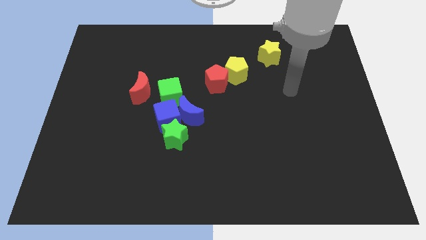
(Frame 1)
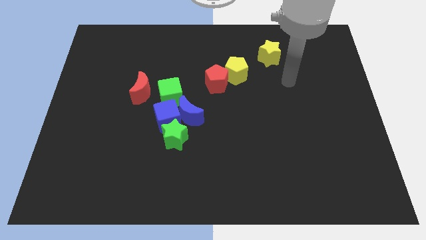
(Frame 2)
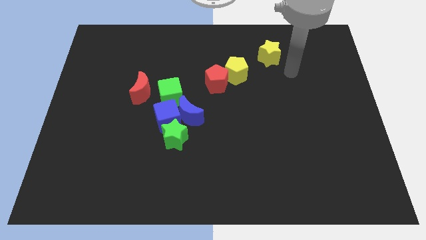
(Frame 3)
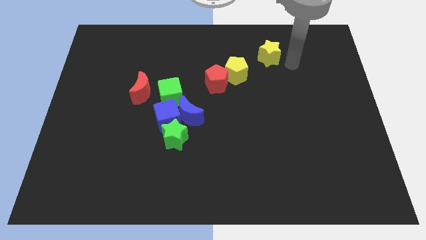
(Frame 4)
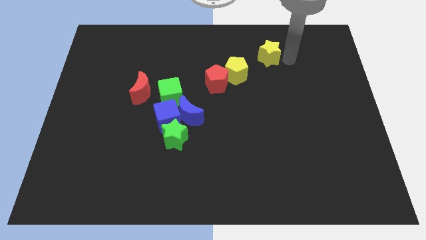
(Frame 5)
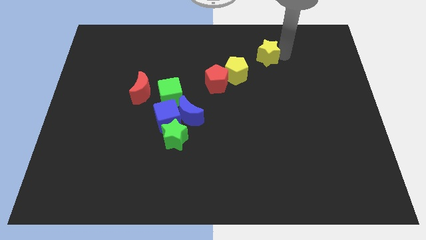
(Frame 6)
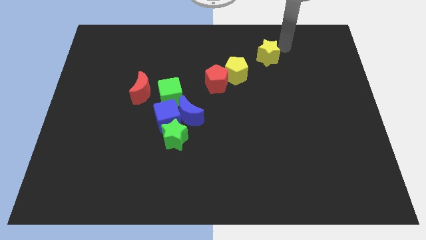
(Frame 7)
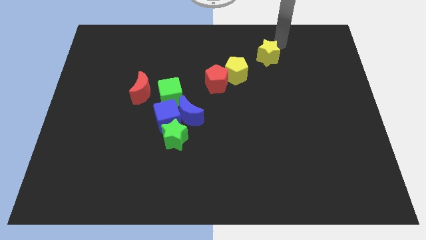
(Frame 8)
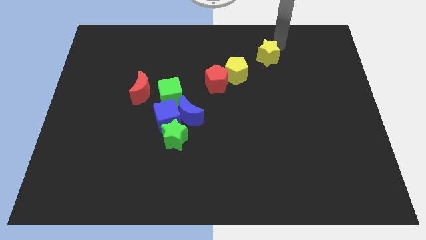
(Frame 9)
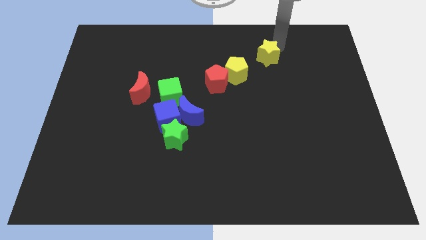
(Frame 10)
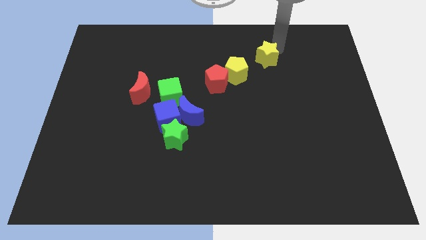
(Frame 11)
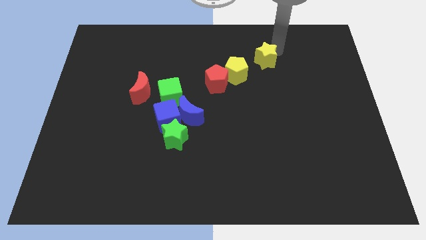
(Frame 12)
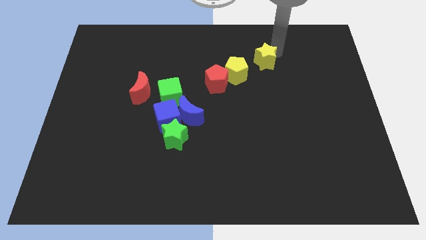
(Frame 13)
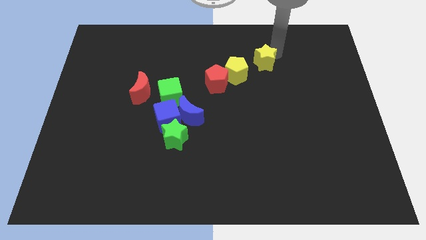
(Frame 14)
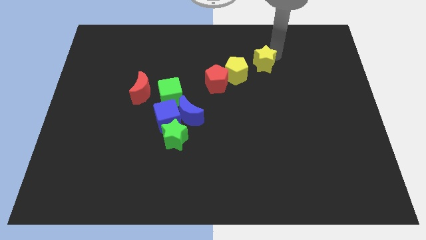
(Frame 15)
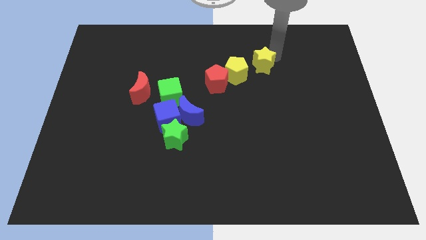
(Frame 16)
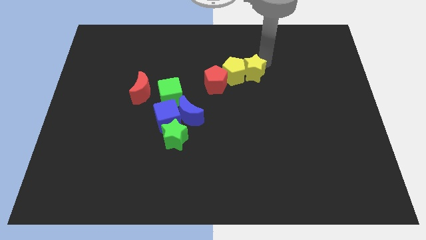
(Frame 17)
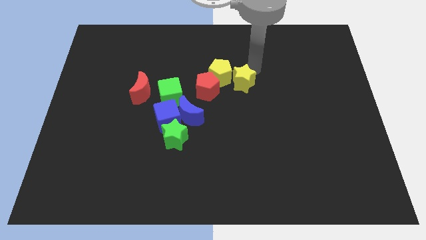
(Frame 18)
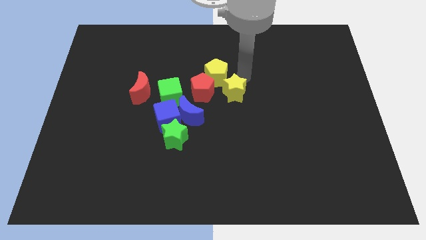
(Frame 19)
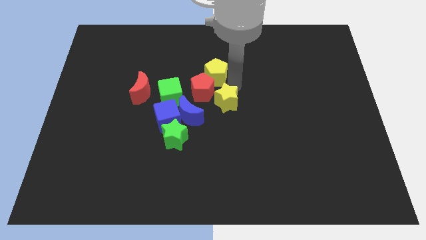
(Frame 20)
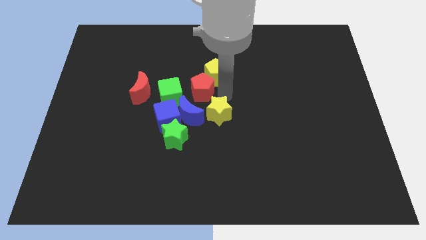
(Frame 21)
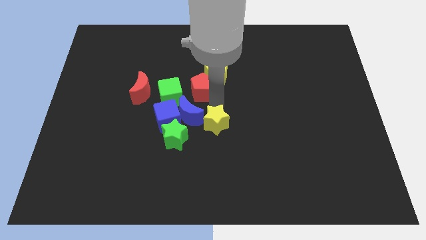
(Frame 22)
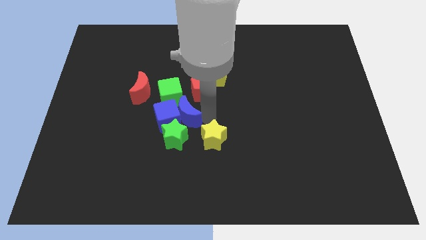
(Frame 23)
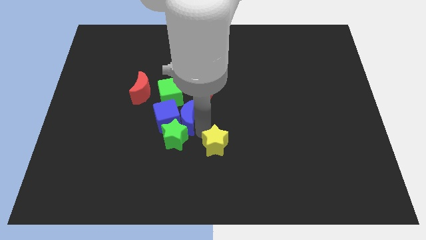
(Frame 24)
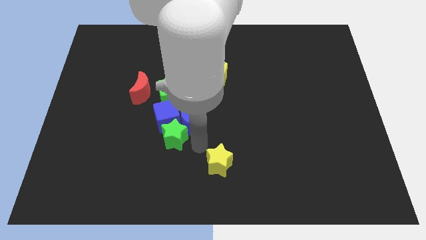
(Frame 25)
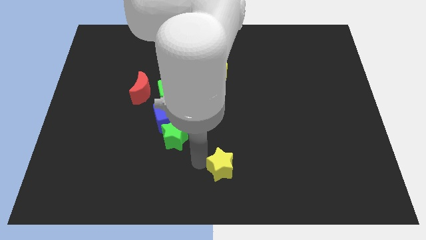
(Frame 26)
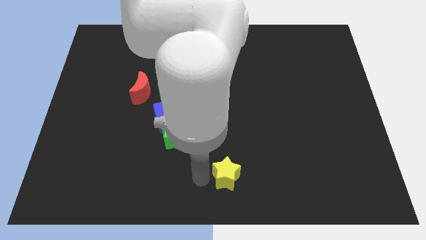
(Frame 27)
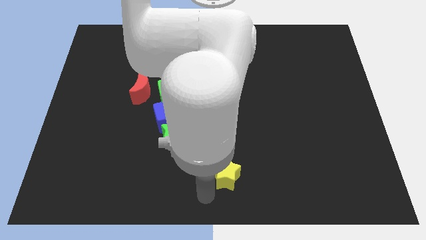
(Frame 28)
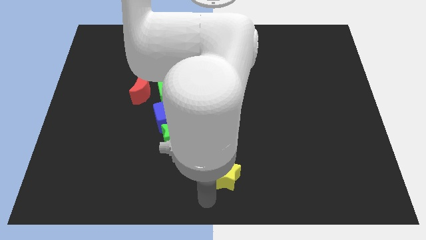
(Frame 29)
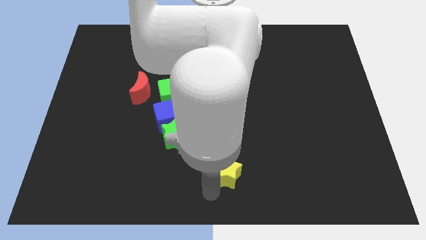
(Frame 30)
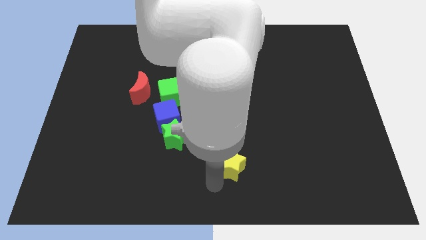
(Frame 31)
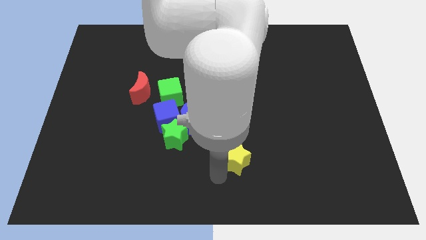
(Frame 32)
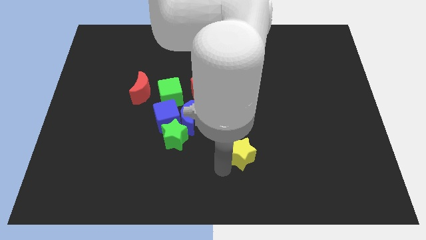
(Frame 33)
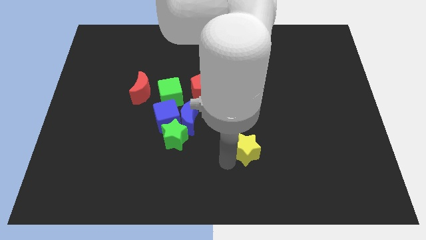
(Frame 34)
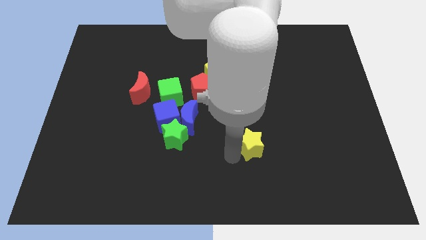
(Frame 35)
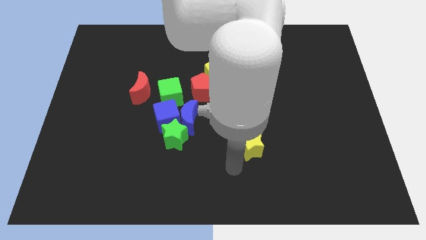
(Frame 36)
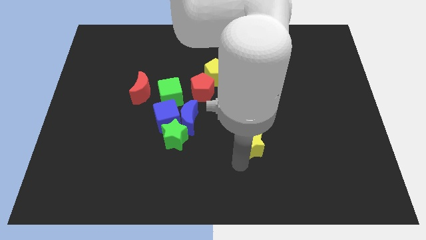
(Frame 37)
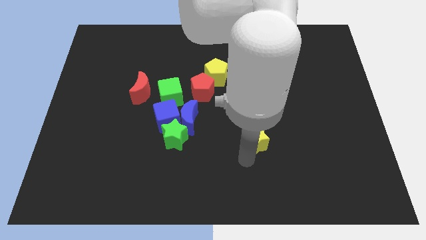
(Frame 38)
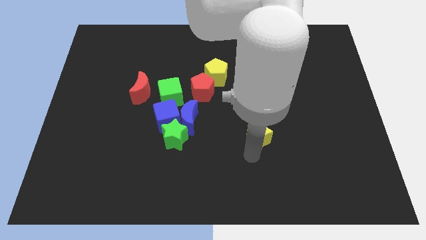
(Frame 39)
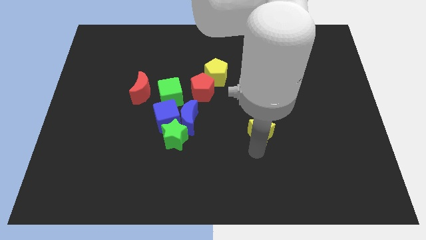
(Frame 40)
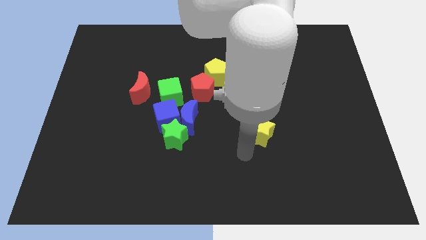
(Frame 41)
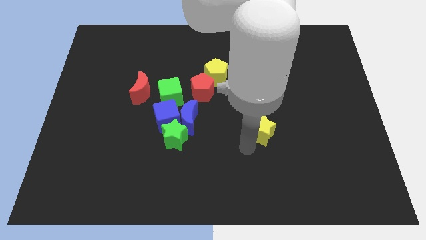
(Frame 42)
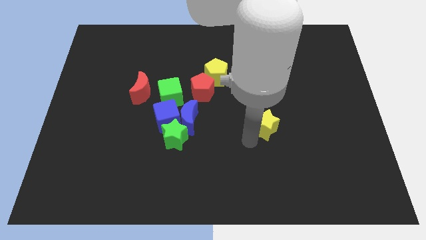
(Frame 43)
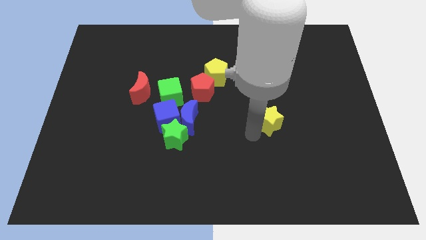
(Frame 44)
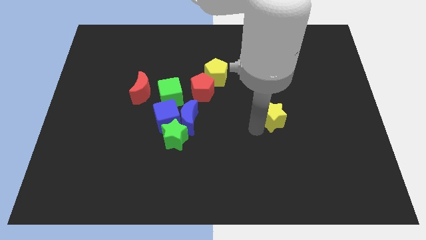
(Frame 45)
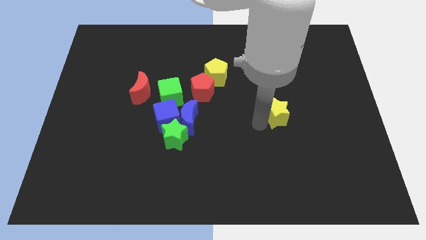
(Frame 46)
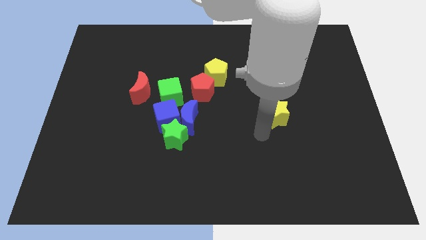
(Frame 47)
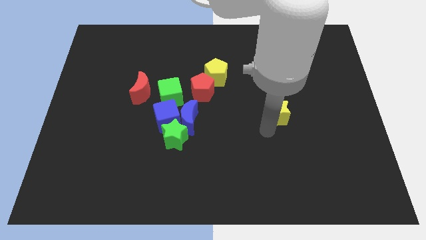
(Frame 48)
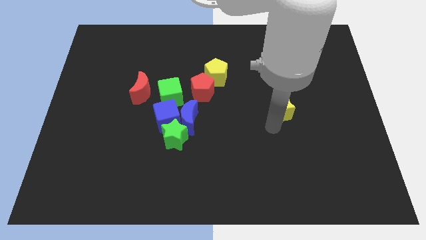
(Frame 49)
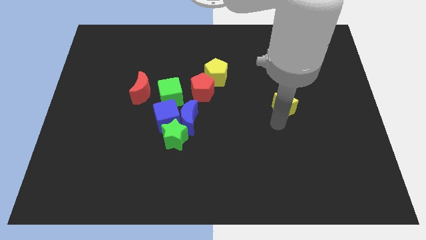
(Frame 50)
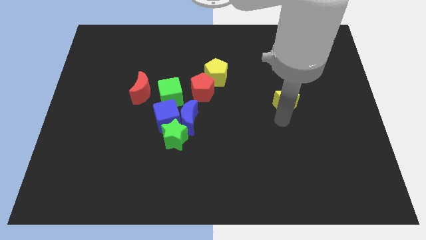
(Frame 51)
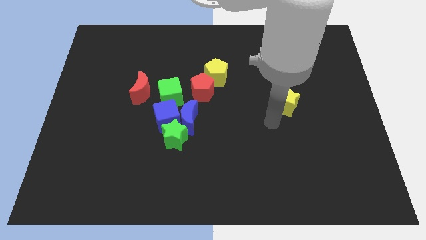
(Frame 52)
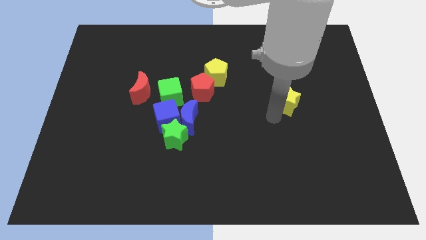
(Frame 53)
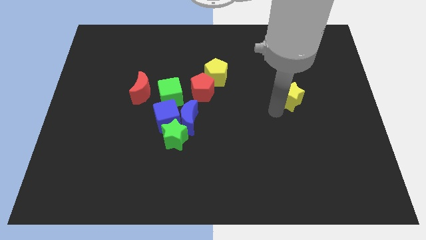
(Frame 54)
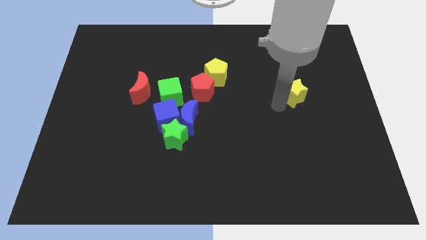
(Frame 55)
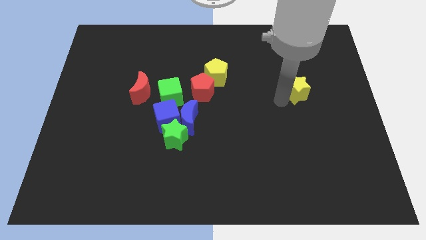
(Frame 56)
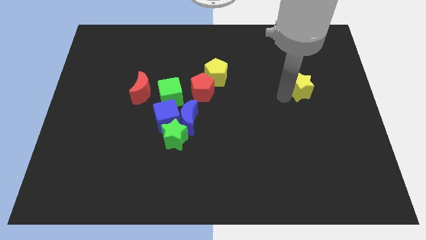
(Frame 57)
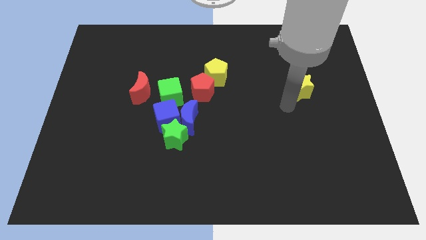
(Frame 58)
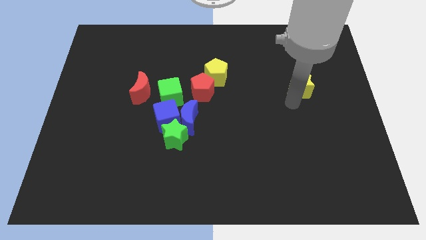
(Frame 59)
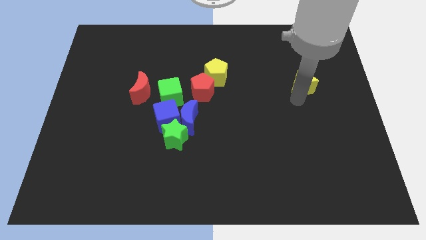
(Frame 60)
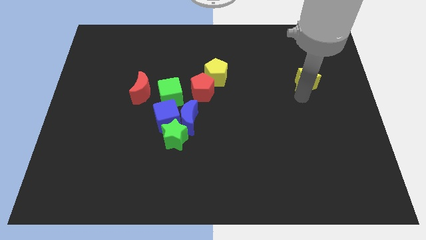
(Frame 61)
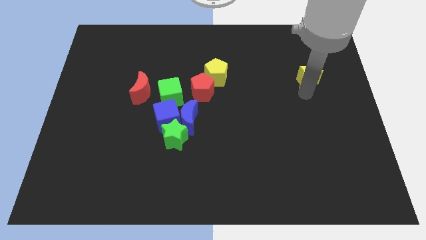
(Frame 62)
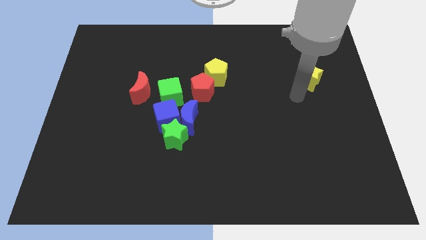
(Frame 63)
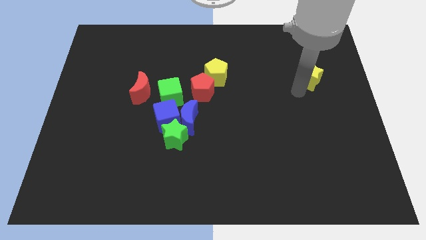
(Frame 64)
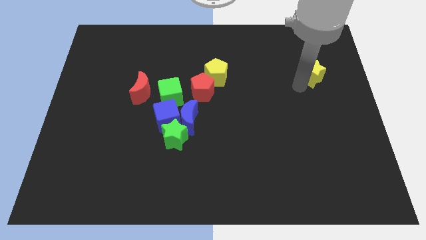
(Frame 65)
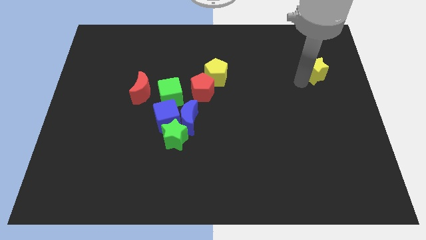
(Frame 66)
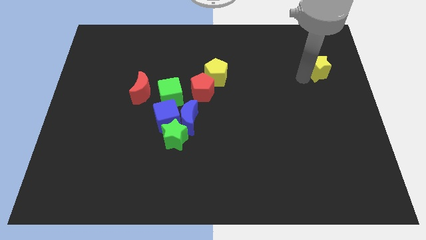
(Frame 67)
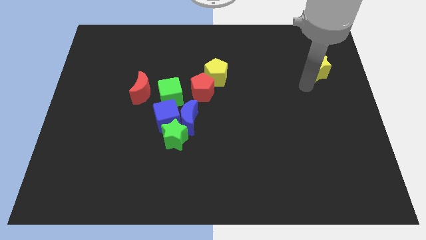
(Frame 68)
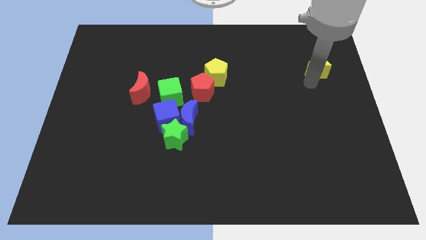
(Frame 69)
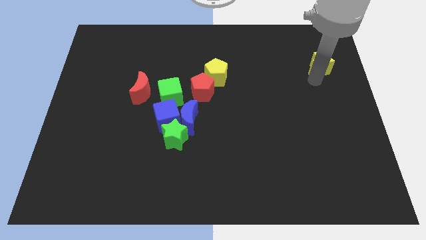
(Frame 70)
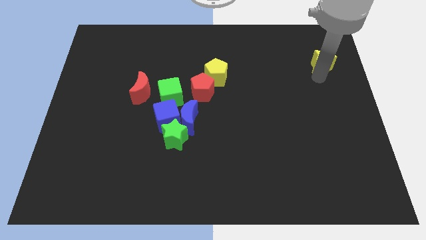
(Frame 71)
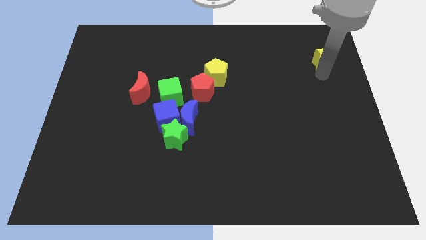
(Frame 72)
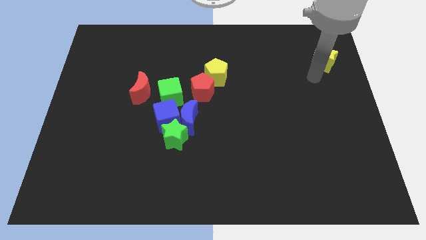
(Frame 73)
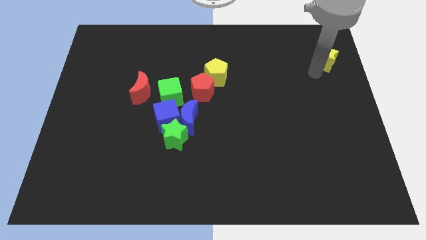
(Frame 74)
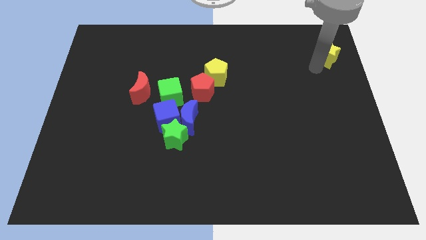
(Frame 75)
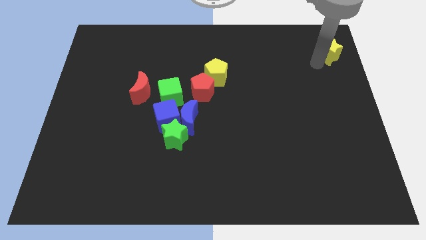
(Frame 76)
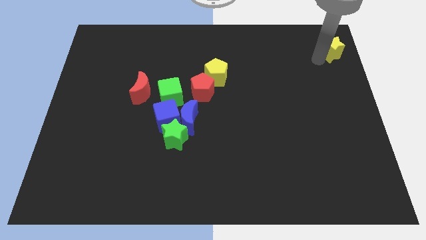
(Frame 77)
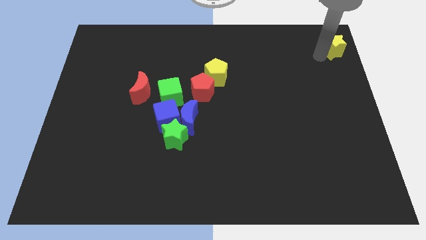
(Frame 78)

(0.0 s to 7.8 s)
put the yellow star to the top right corner
